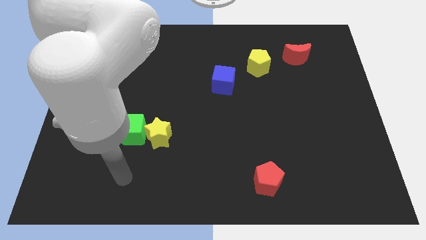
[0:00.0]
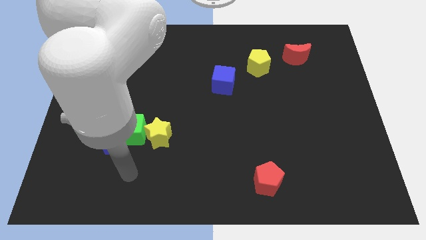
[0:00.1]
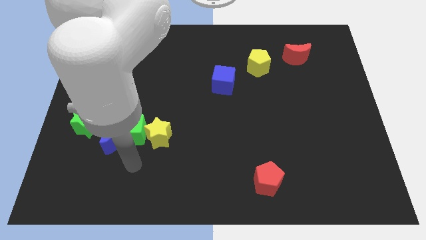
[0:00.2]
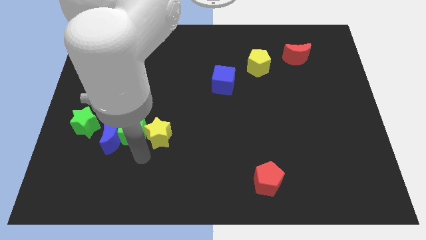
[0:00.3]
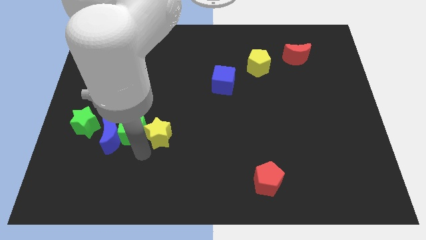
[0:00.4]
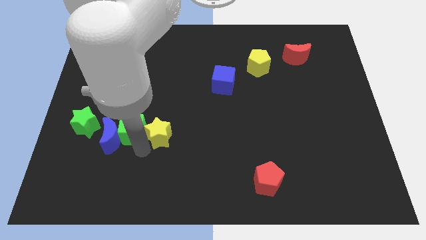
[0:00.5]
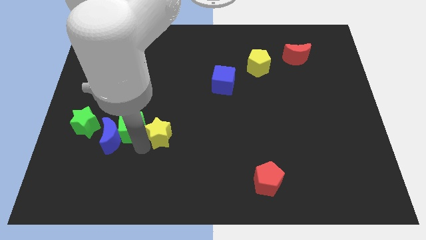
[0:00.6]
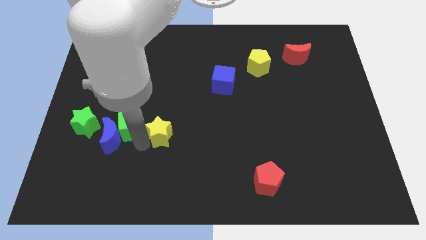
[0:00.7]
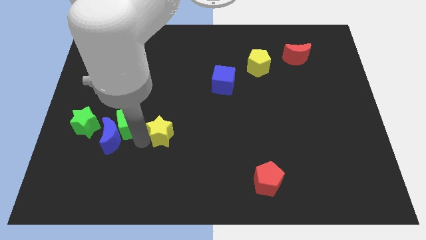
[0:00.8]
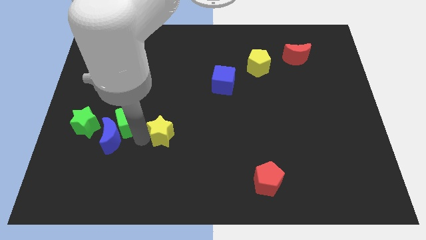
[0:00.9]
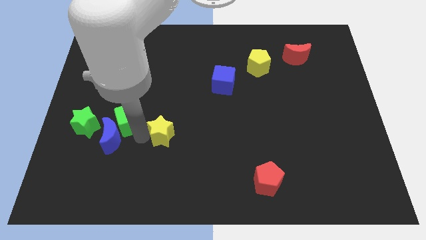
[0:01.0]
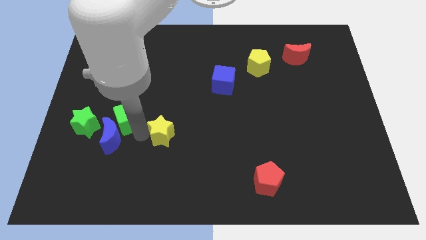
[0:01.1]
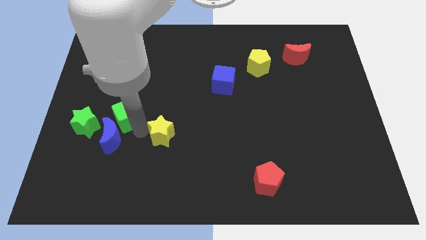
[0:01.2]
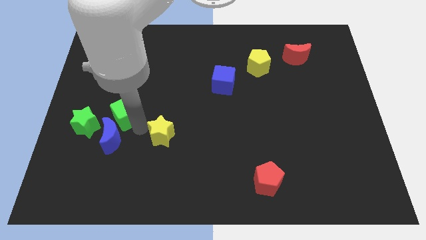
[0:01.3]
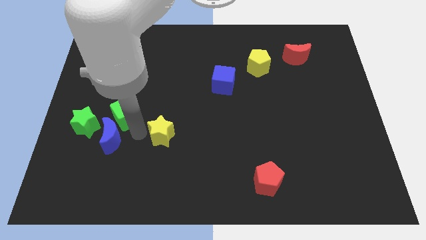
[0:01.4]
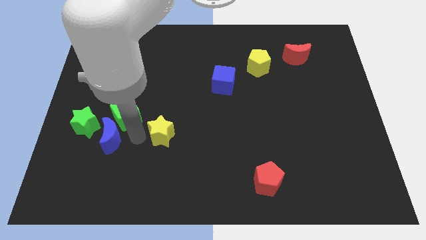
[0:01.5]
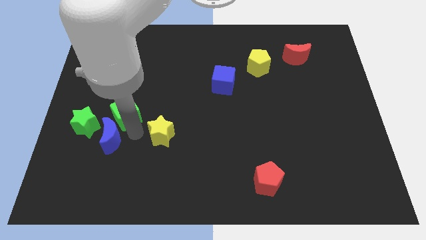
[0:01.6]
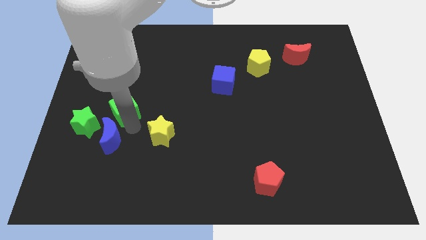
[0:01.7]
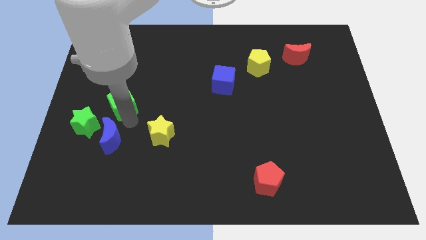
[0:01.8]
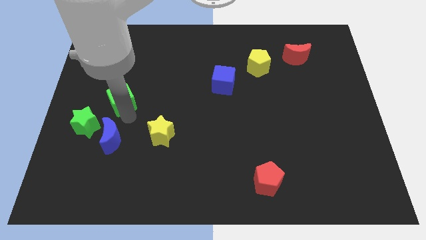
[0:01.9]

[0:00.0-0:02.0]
move the green cube away from the blue moon and yellow star

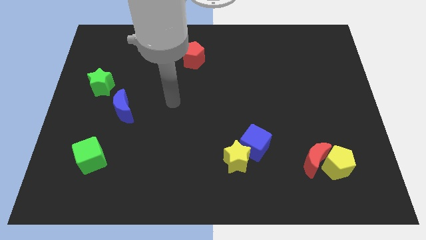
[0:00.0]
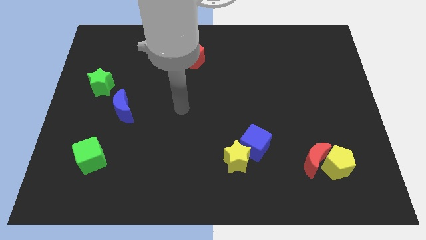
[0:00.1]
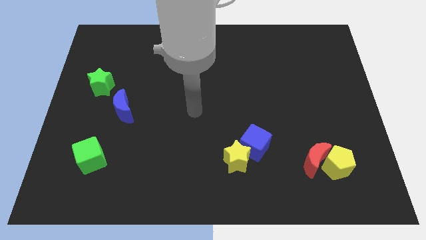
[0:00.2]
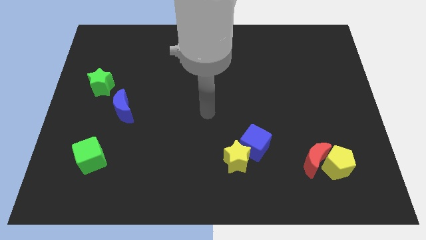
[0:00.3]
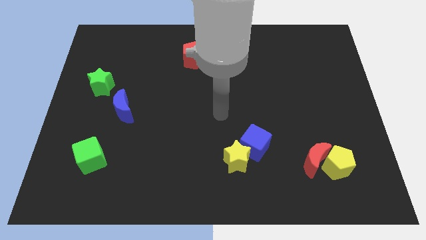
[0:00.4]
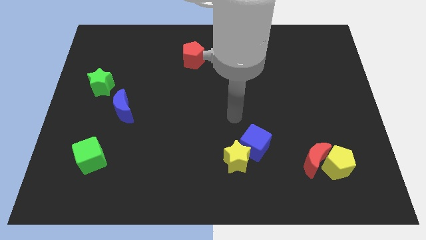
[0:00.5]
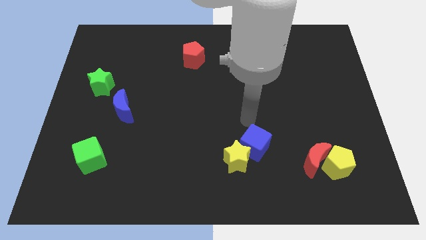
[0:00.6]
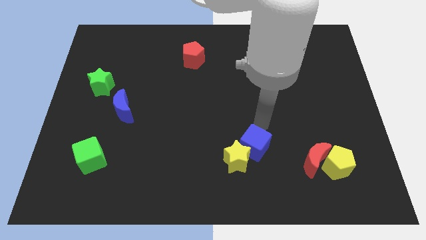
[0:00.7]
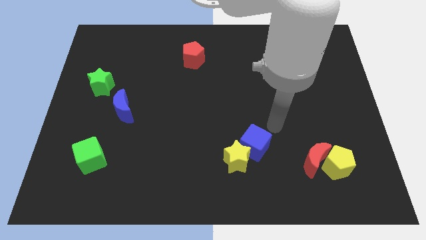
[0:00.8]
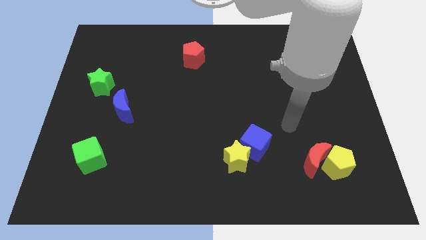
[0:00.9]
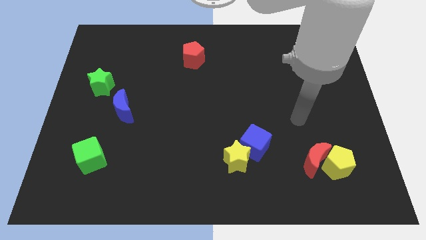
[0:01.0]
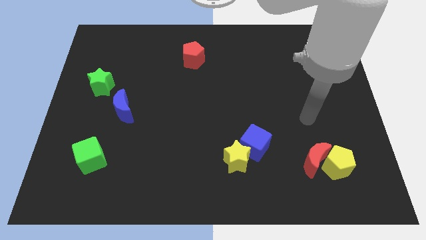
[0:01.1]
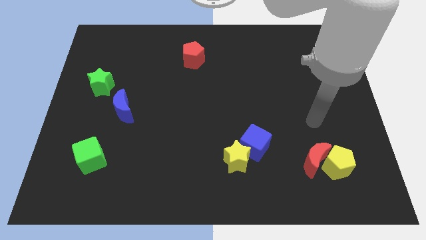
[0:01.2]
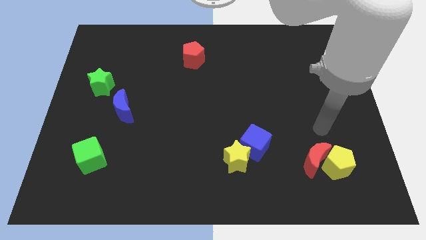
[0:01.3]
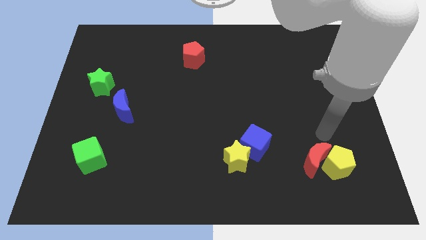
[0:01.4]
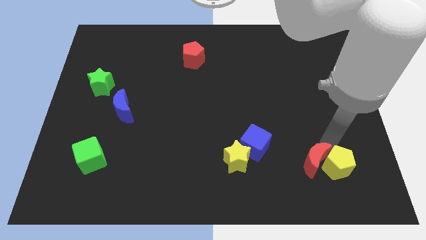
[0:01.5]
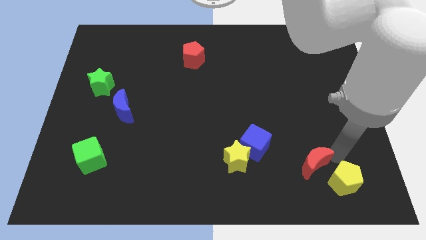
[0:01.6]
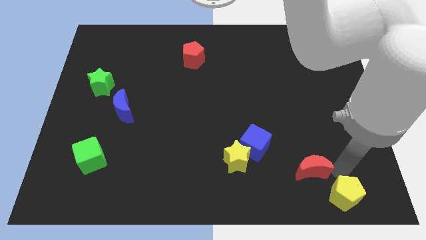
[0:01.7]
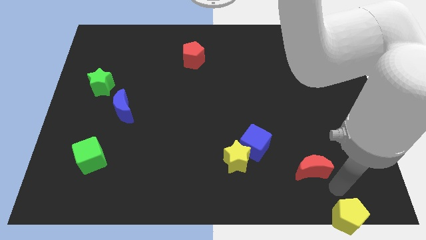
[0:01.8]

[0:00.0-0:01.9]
separate the red moon from the yellow pentagon

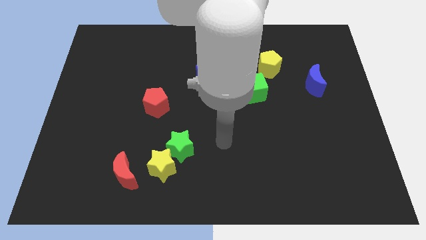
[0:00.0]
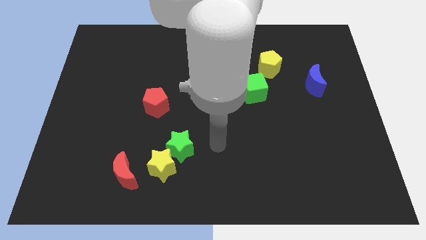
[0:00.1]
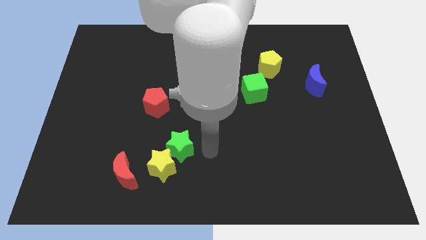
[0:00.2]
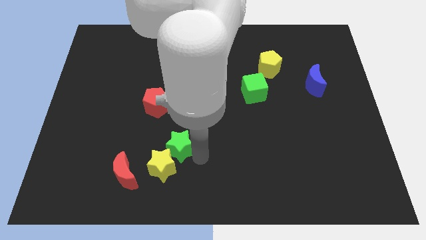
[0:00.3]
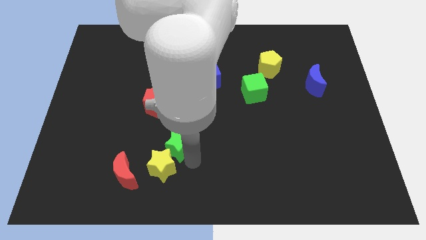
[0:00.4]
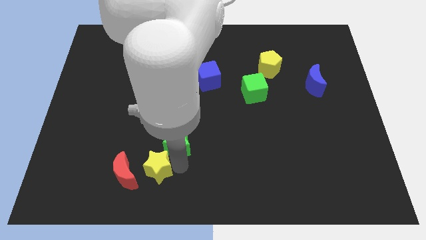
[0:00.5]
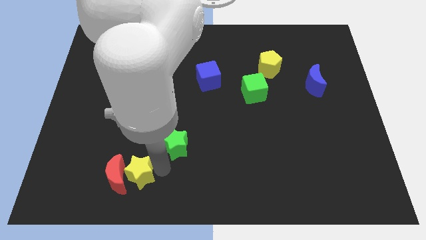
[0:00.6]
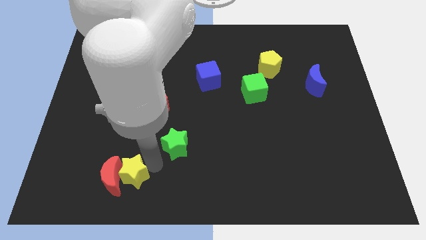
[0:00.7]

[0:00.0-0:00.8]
separate the green star from the yellow star

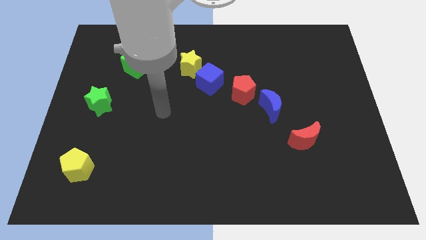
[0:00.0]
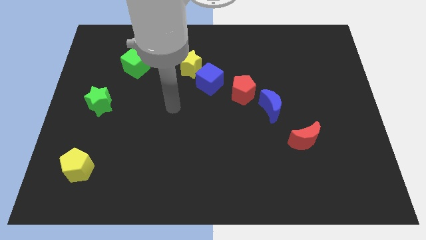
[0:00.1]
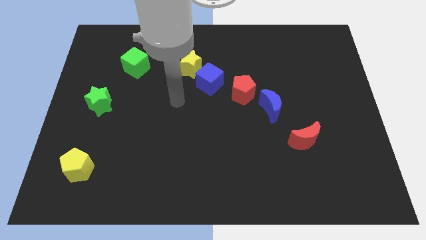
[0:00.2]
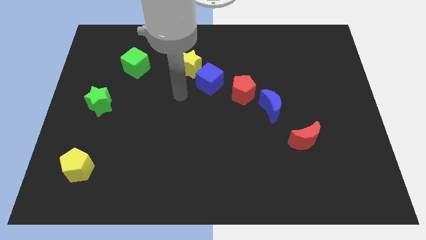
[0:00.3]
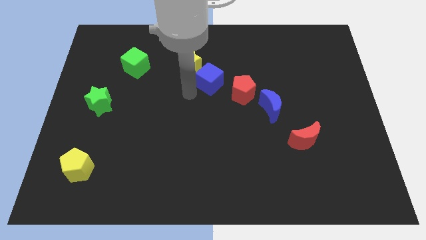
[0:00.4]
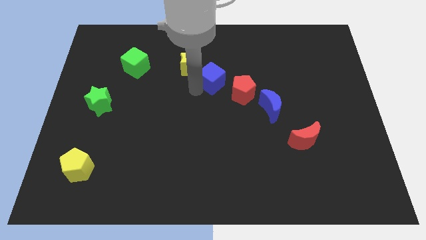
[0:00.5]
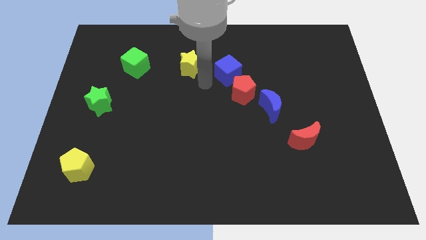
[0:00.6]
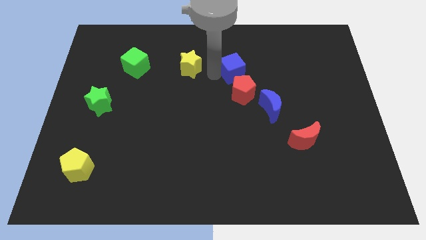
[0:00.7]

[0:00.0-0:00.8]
separate the yellow star from the blue cube

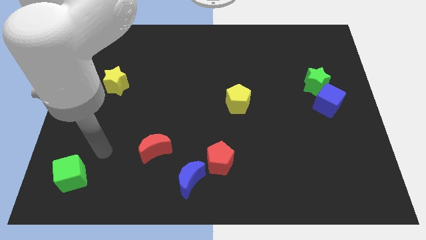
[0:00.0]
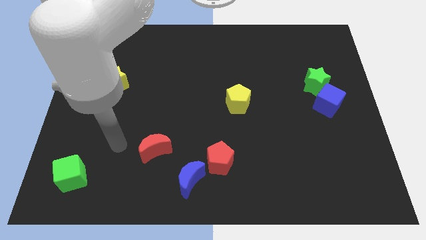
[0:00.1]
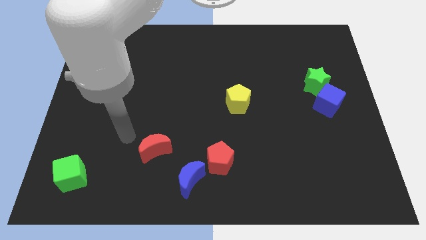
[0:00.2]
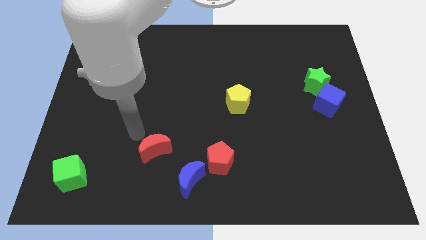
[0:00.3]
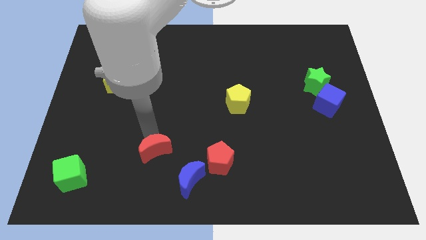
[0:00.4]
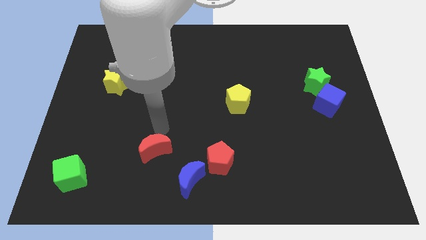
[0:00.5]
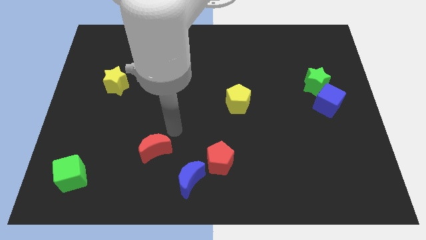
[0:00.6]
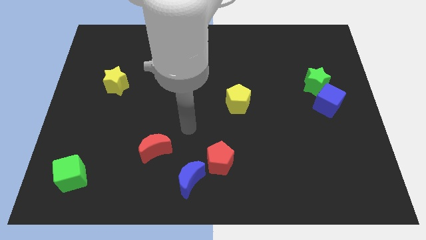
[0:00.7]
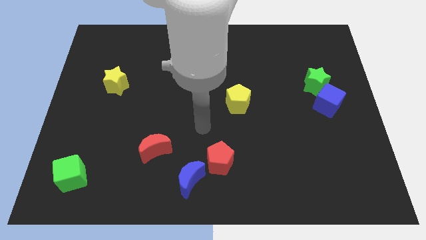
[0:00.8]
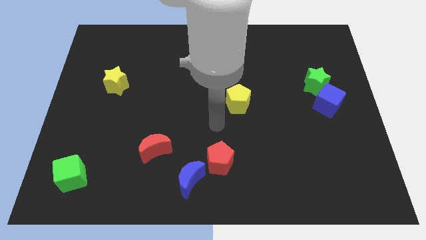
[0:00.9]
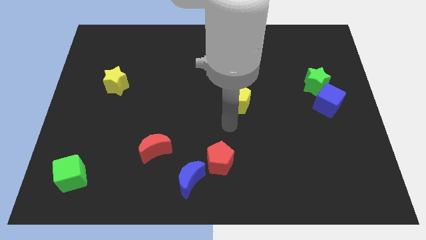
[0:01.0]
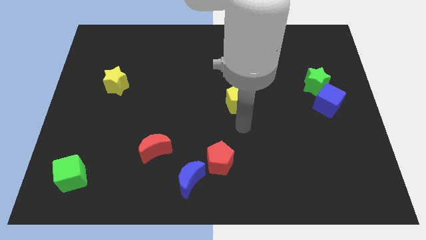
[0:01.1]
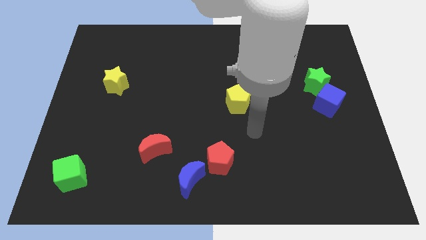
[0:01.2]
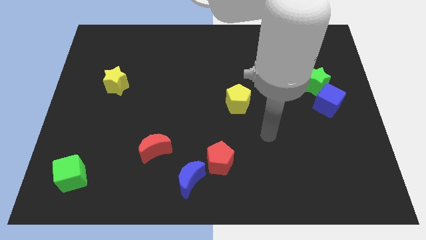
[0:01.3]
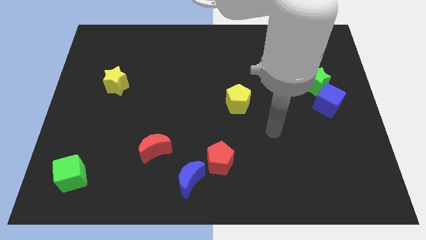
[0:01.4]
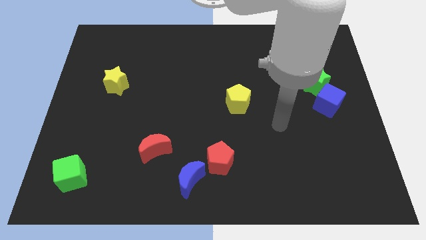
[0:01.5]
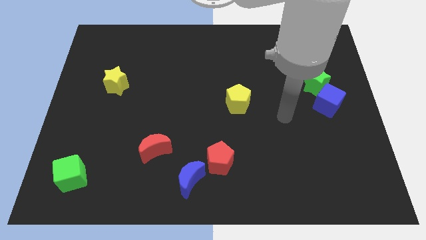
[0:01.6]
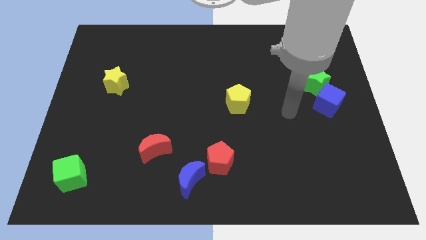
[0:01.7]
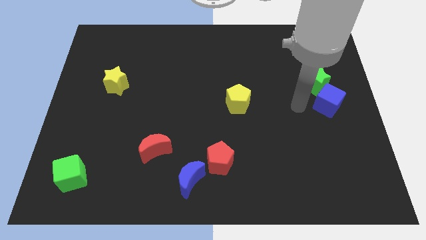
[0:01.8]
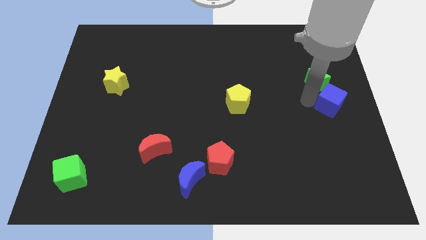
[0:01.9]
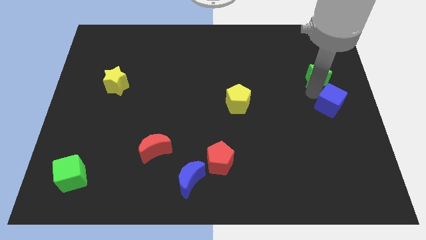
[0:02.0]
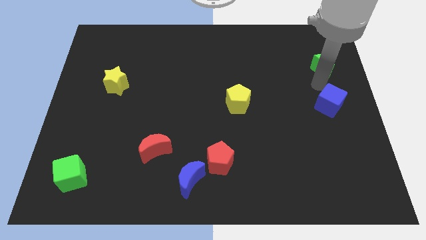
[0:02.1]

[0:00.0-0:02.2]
move the blue cube away from the green star

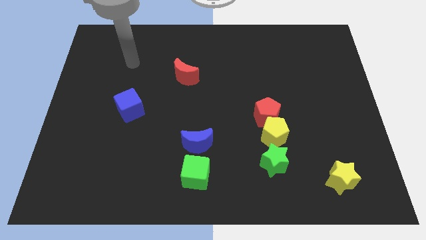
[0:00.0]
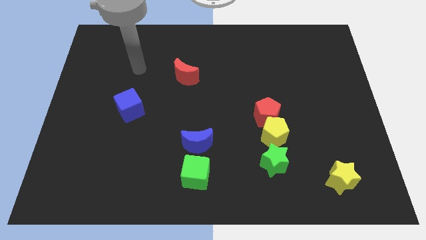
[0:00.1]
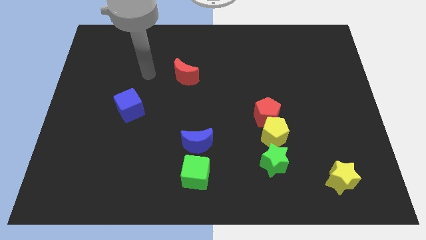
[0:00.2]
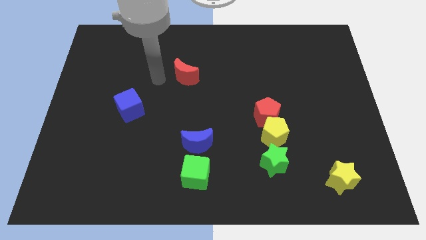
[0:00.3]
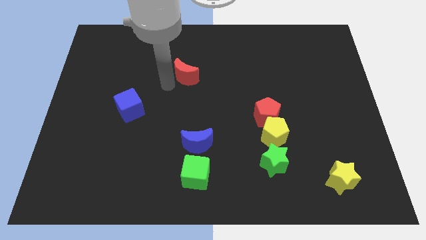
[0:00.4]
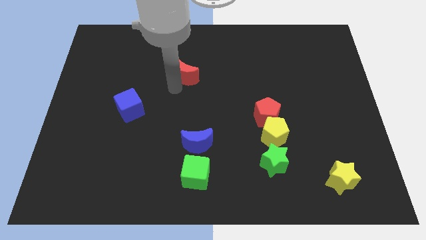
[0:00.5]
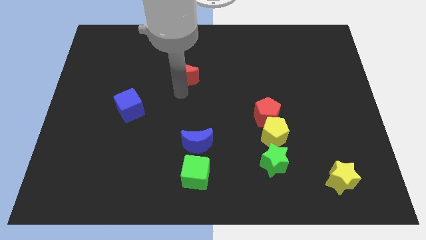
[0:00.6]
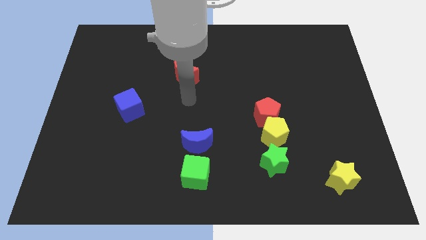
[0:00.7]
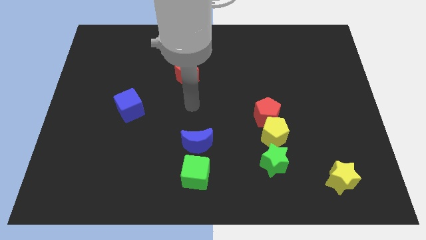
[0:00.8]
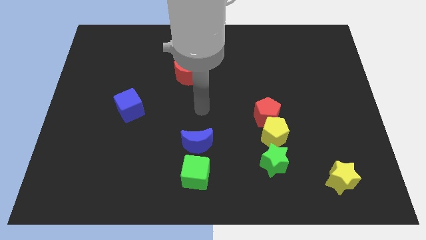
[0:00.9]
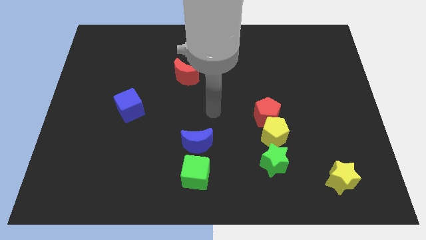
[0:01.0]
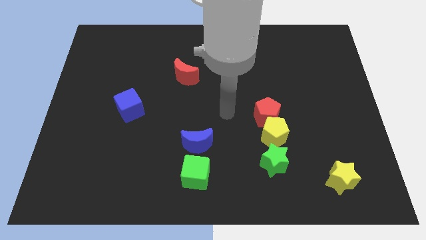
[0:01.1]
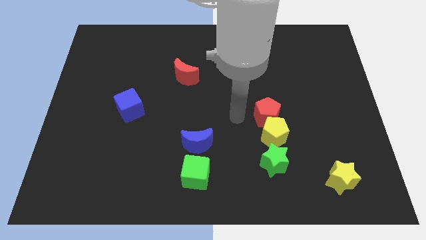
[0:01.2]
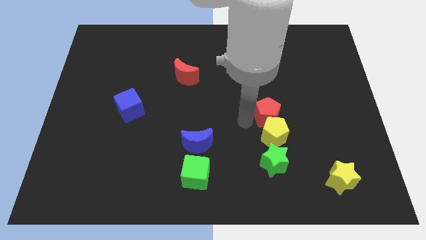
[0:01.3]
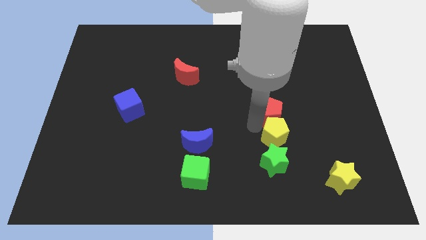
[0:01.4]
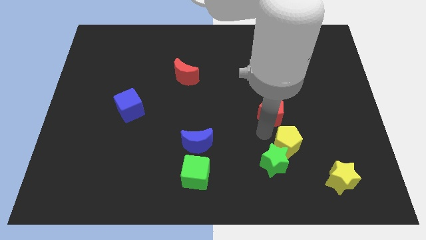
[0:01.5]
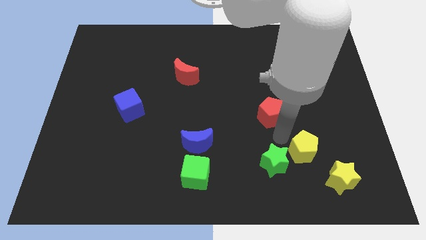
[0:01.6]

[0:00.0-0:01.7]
move the red pentagon away from the yellow pentagon
